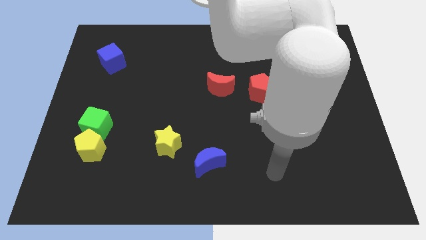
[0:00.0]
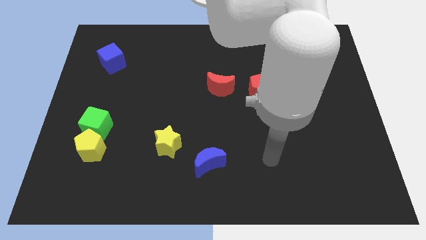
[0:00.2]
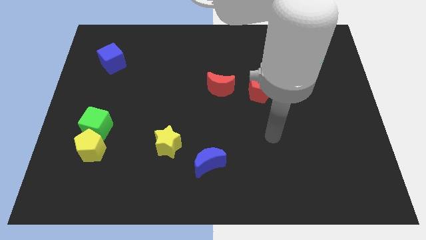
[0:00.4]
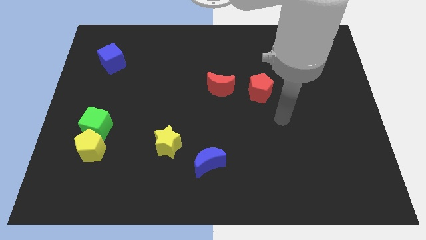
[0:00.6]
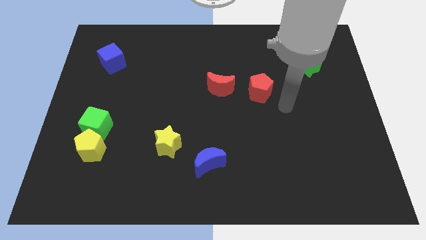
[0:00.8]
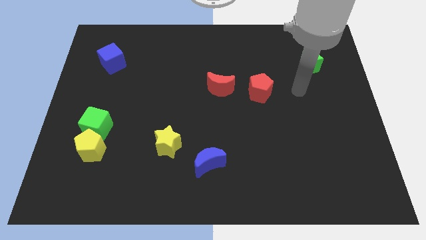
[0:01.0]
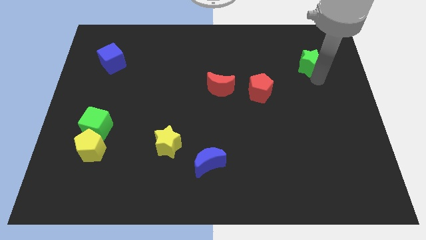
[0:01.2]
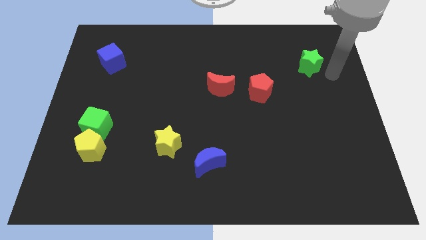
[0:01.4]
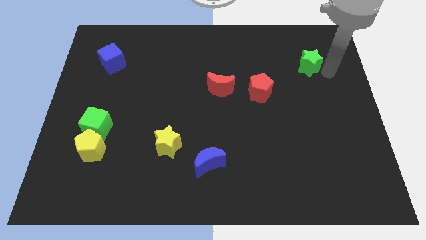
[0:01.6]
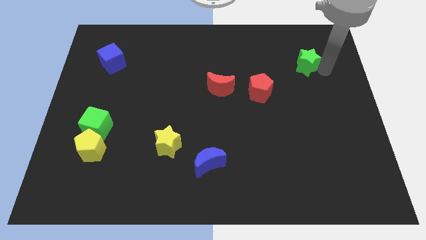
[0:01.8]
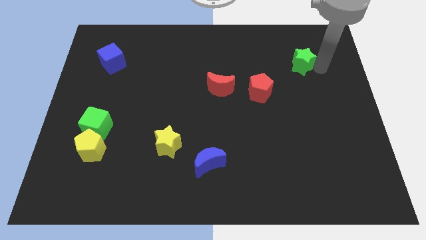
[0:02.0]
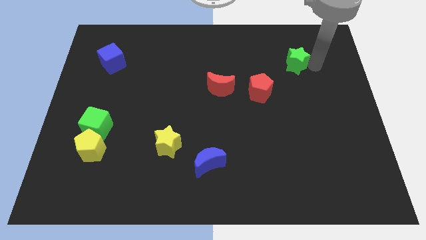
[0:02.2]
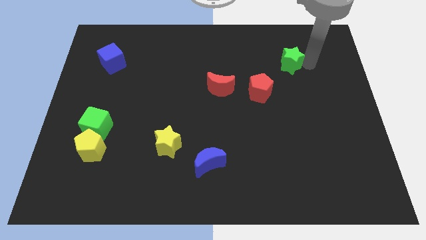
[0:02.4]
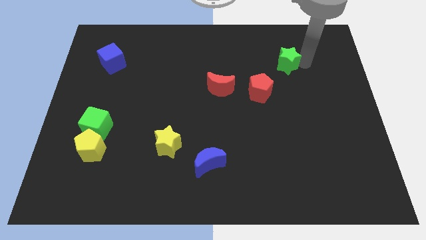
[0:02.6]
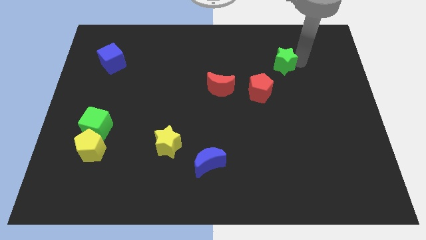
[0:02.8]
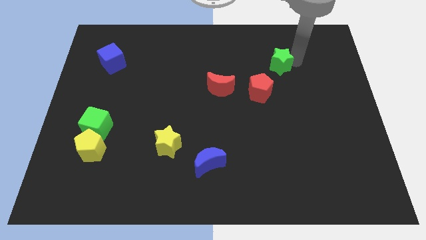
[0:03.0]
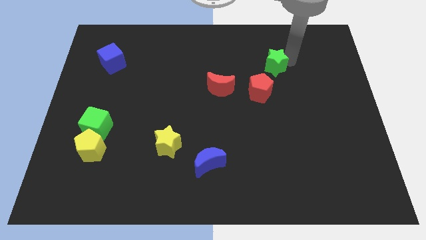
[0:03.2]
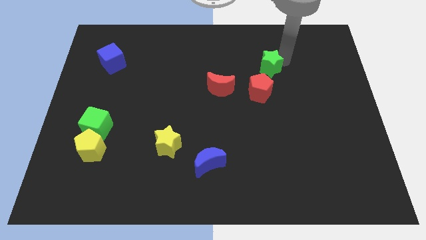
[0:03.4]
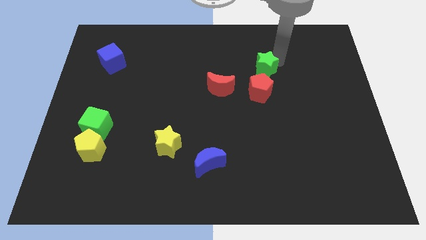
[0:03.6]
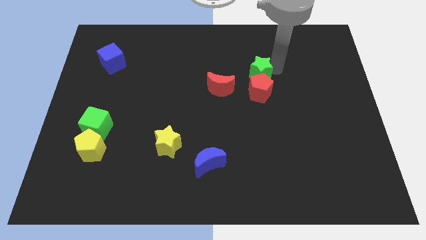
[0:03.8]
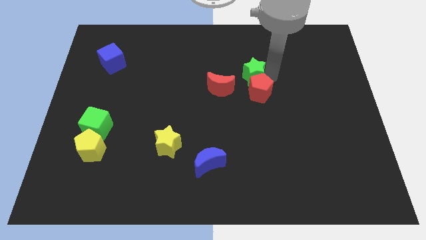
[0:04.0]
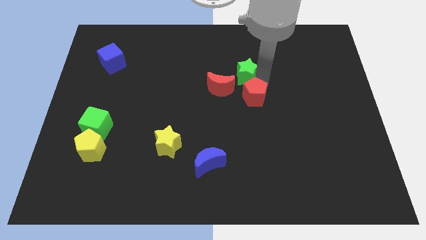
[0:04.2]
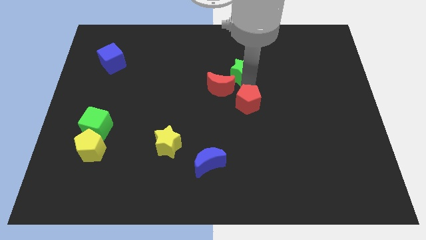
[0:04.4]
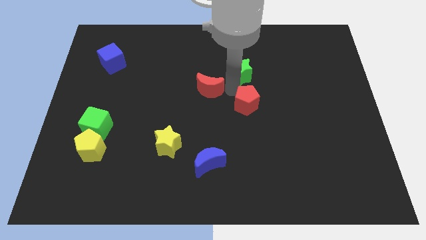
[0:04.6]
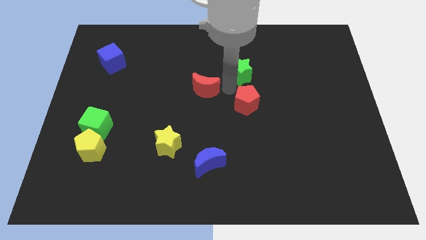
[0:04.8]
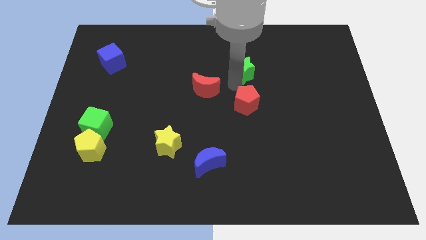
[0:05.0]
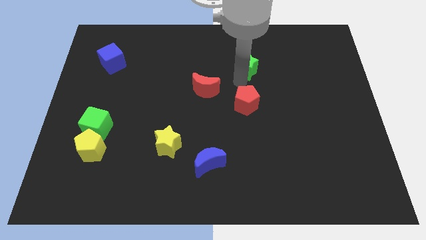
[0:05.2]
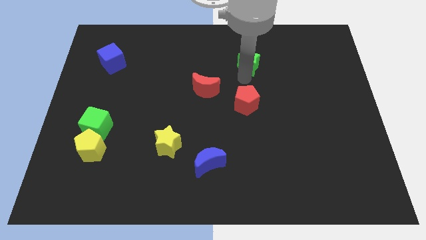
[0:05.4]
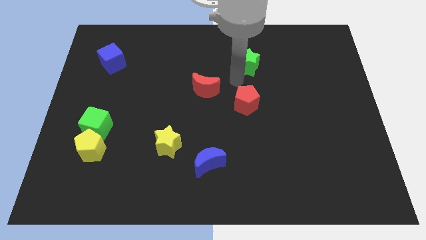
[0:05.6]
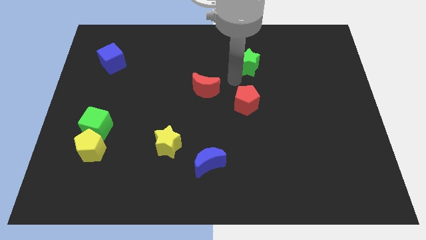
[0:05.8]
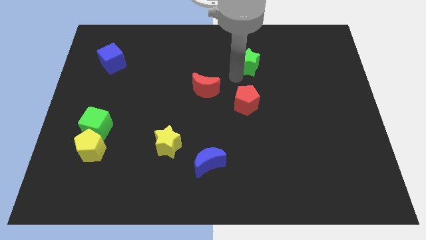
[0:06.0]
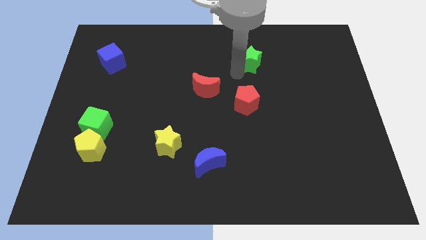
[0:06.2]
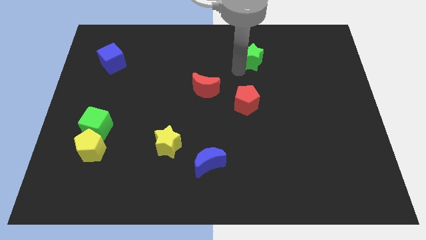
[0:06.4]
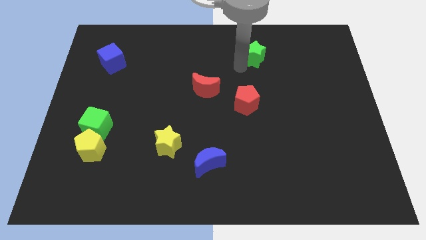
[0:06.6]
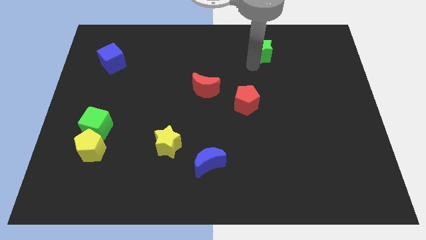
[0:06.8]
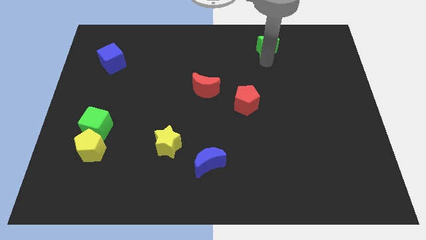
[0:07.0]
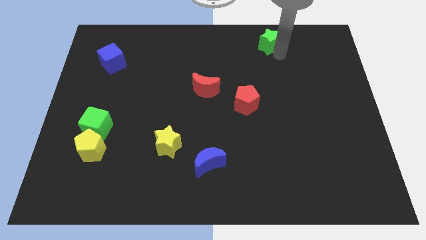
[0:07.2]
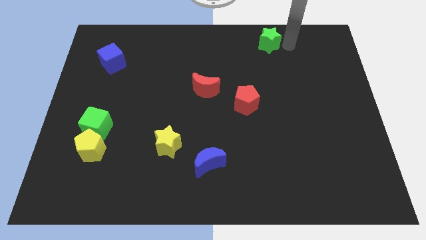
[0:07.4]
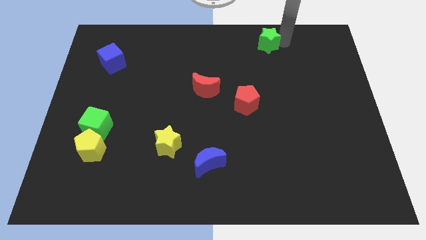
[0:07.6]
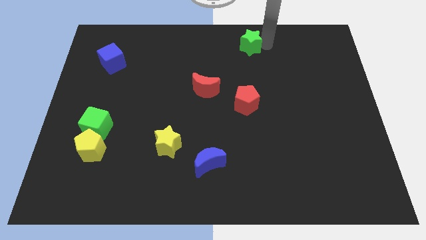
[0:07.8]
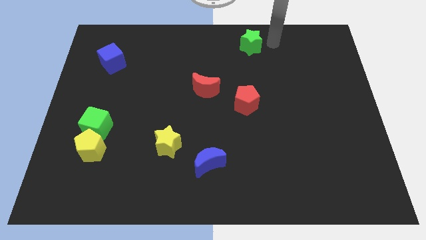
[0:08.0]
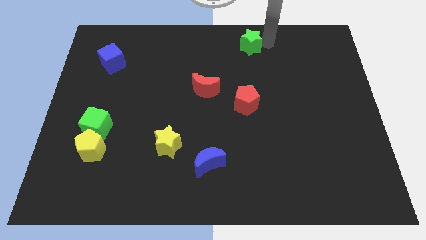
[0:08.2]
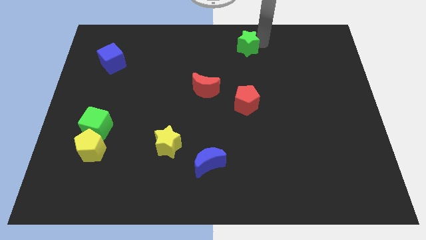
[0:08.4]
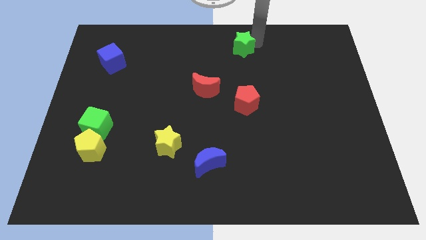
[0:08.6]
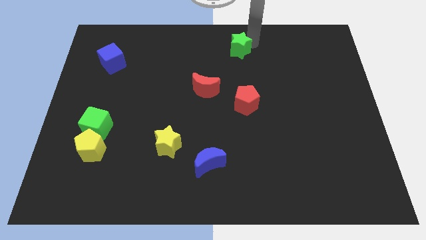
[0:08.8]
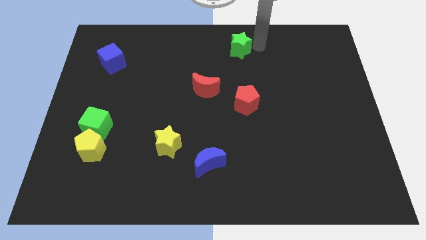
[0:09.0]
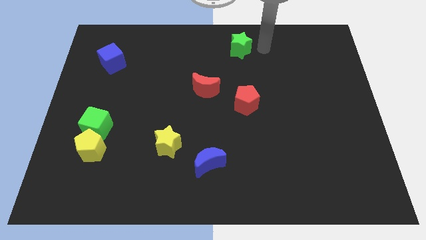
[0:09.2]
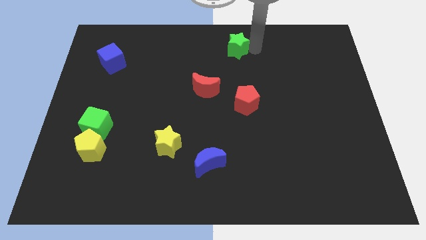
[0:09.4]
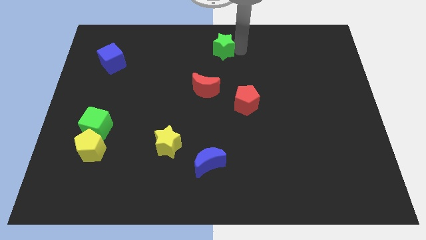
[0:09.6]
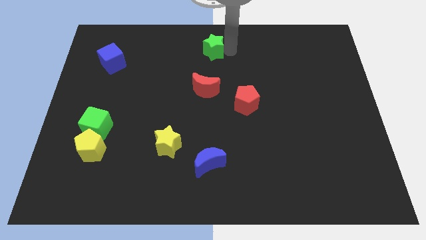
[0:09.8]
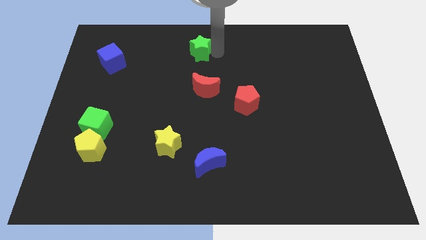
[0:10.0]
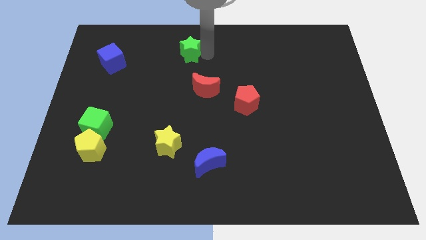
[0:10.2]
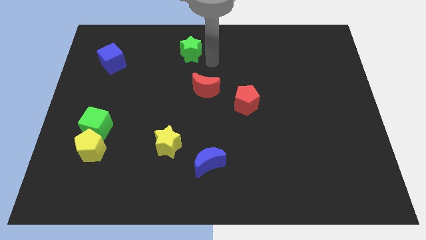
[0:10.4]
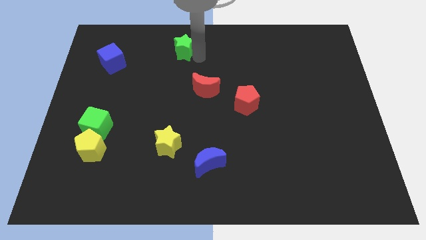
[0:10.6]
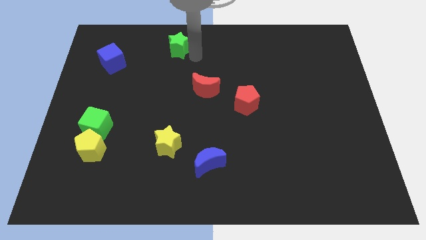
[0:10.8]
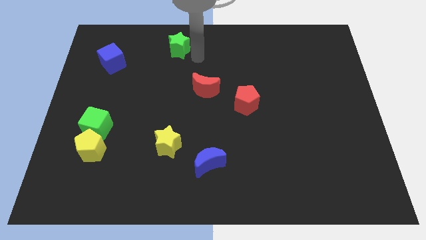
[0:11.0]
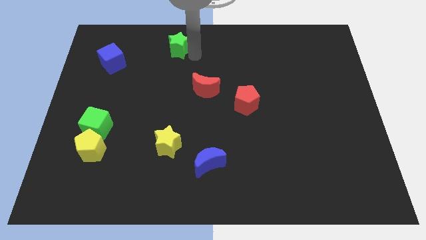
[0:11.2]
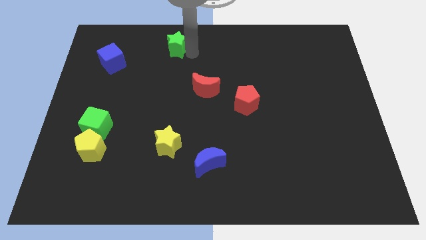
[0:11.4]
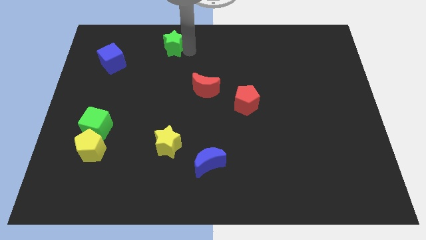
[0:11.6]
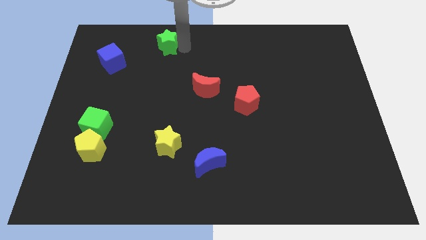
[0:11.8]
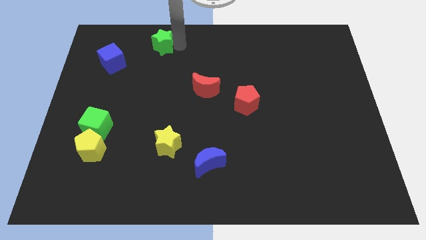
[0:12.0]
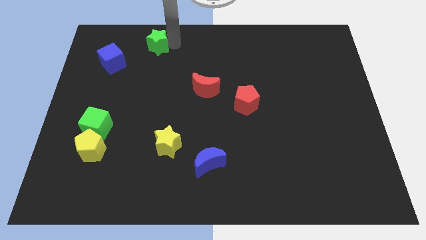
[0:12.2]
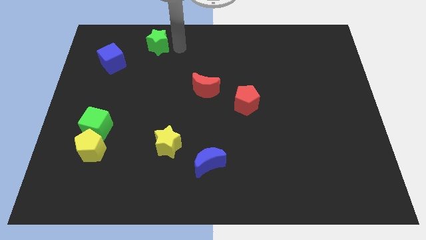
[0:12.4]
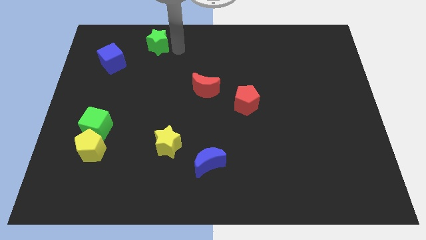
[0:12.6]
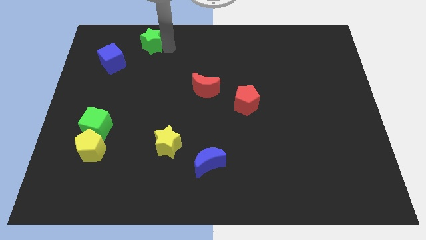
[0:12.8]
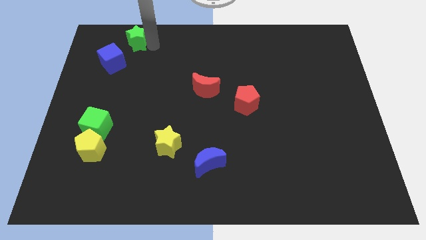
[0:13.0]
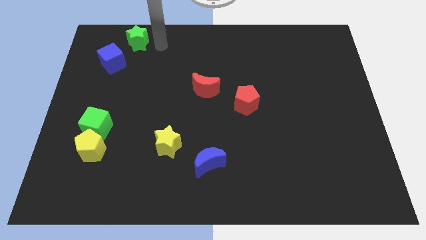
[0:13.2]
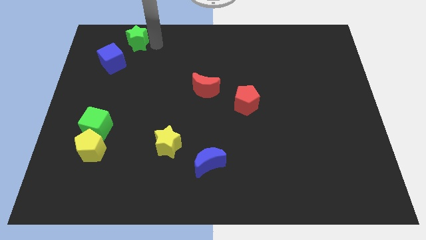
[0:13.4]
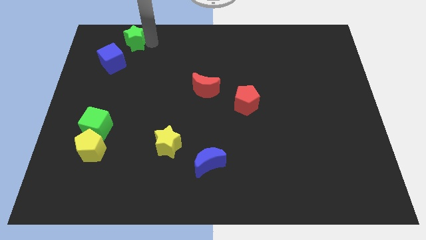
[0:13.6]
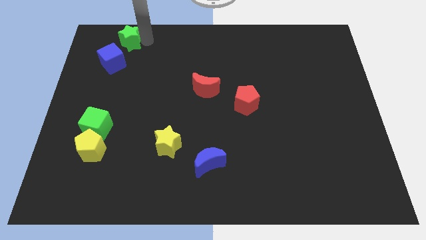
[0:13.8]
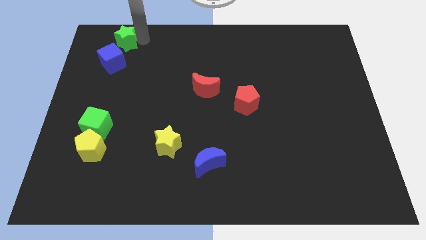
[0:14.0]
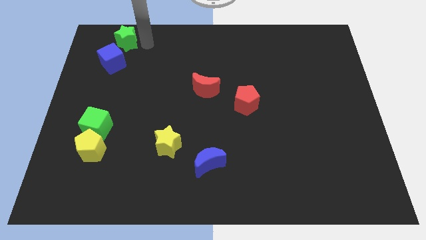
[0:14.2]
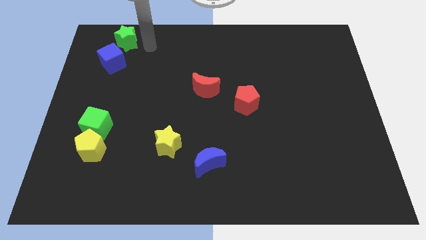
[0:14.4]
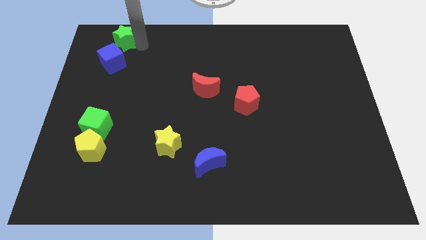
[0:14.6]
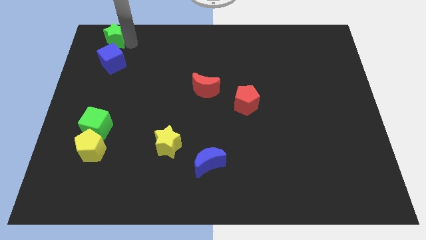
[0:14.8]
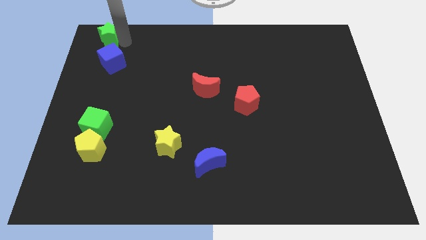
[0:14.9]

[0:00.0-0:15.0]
move the green star to the top left of the board
